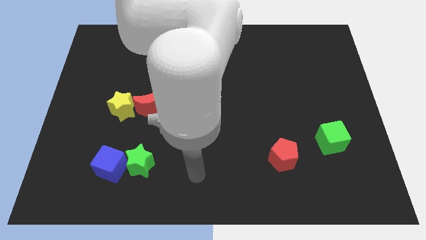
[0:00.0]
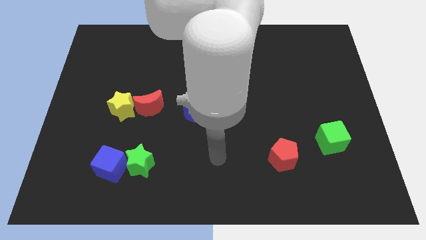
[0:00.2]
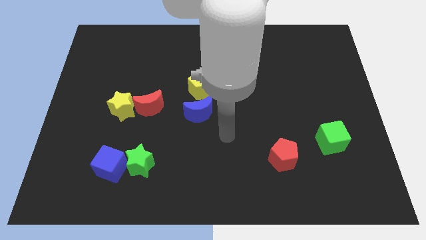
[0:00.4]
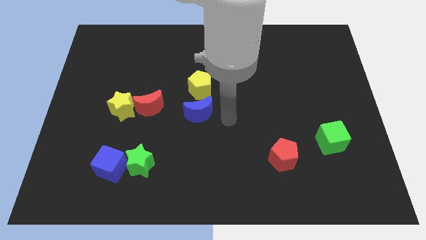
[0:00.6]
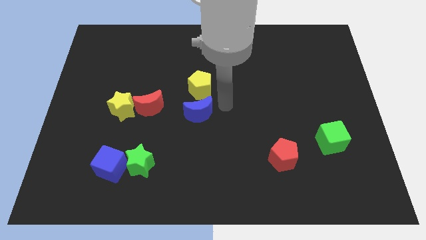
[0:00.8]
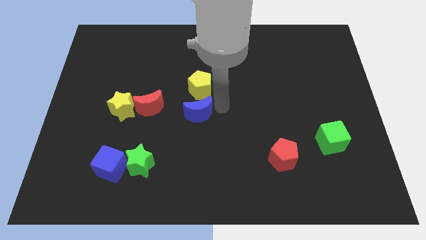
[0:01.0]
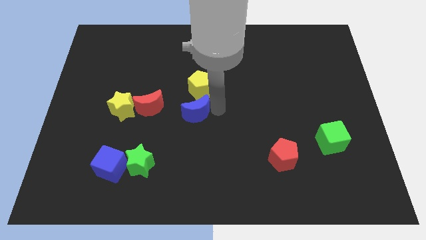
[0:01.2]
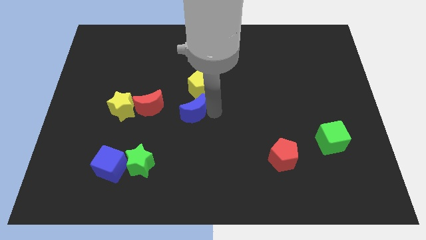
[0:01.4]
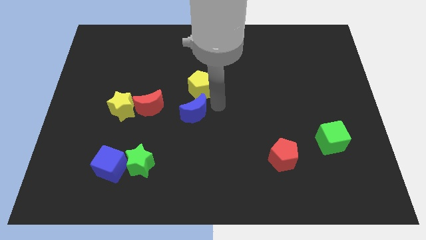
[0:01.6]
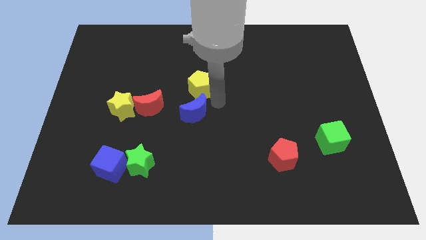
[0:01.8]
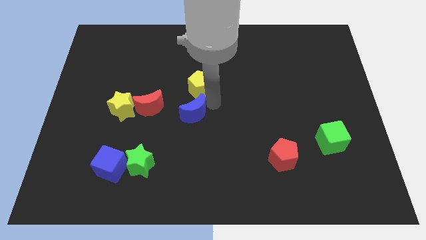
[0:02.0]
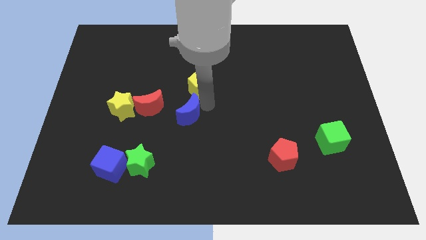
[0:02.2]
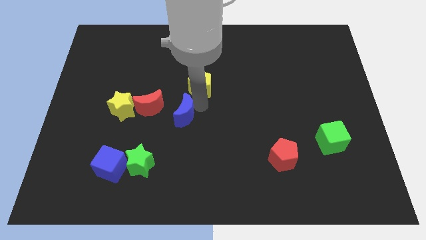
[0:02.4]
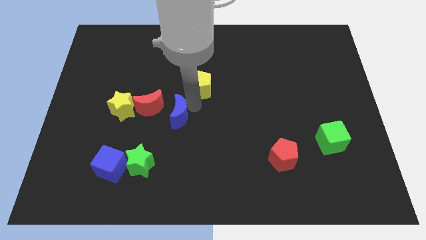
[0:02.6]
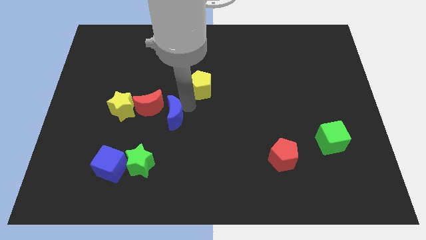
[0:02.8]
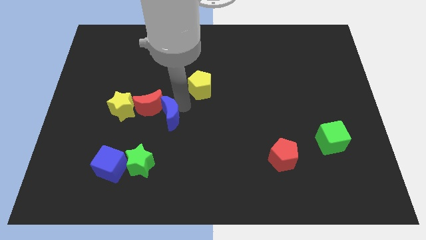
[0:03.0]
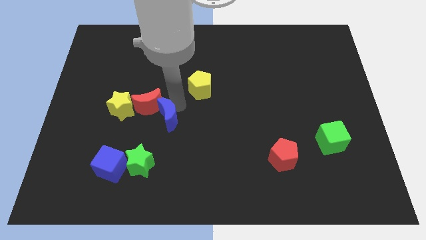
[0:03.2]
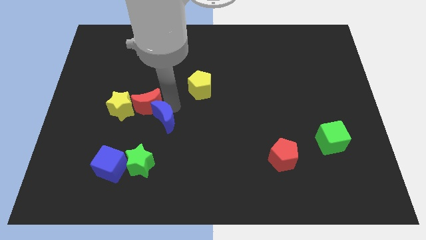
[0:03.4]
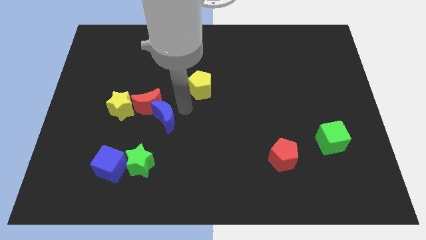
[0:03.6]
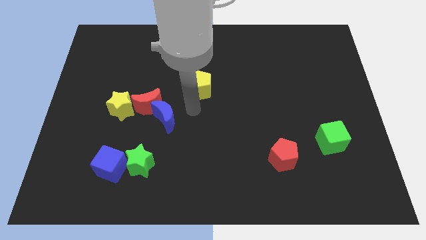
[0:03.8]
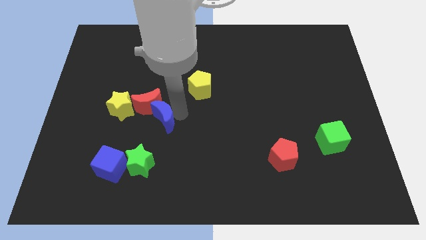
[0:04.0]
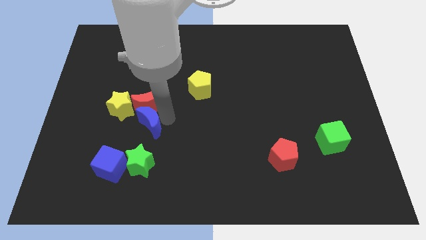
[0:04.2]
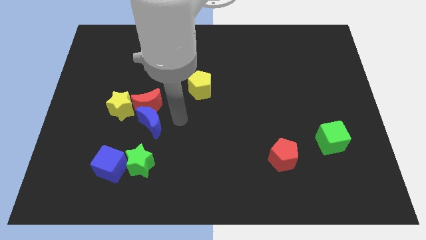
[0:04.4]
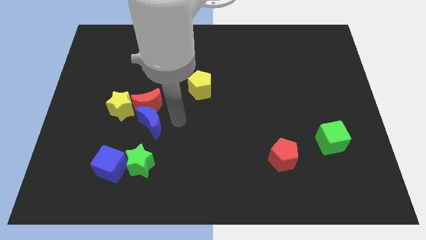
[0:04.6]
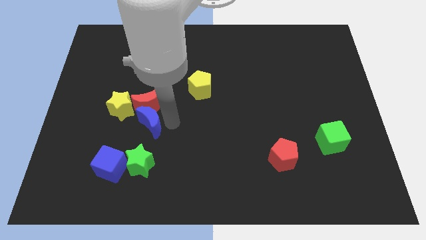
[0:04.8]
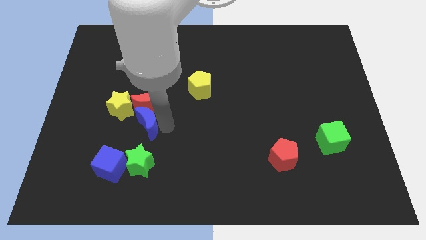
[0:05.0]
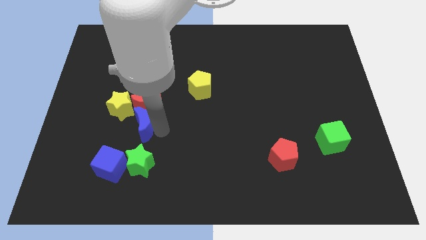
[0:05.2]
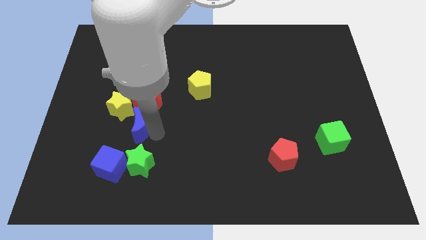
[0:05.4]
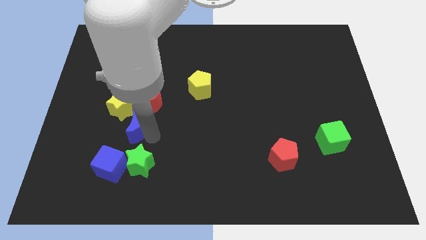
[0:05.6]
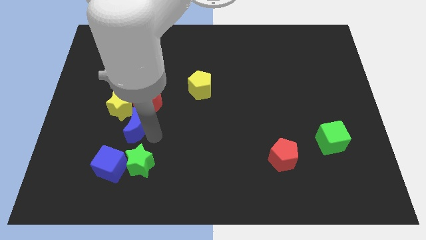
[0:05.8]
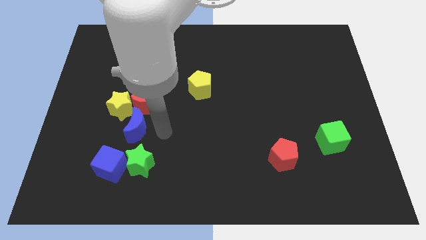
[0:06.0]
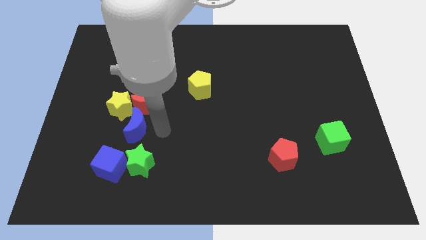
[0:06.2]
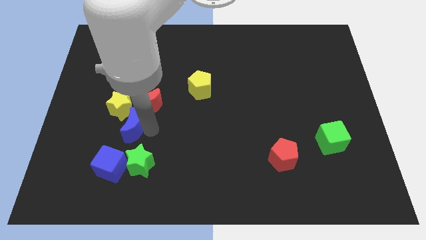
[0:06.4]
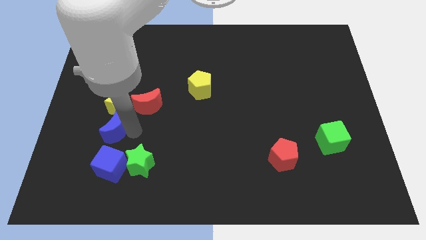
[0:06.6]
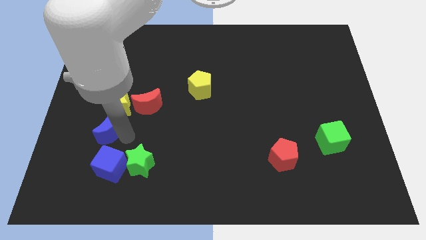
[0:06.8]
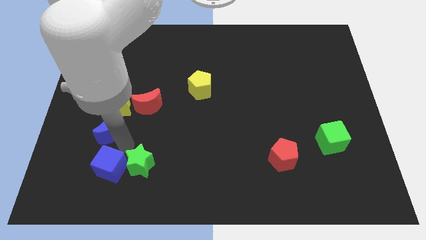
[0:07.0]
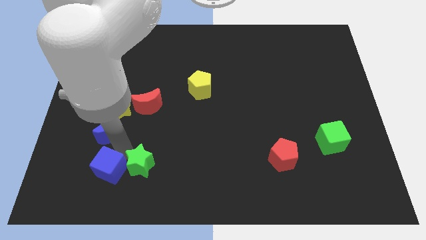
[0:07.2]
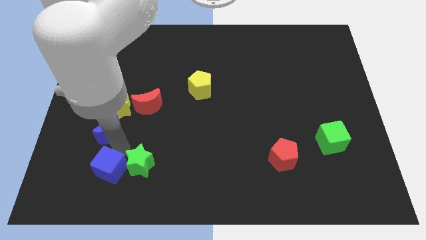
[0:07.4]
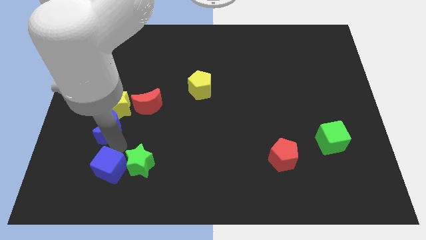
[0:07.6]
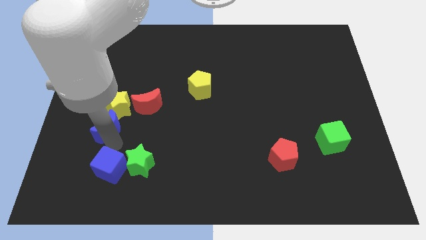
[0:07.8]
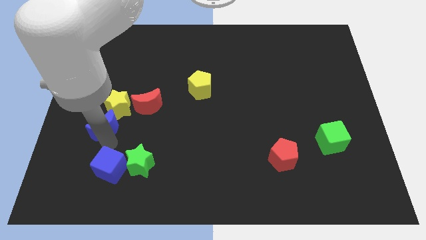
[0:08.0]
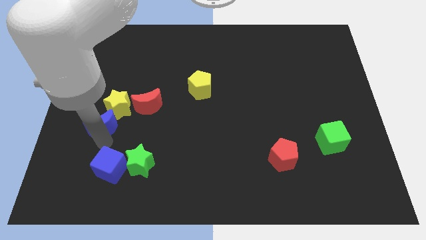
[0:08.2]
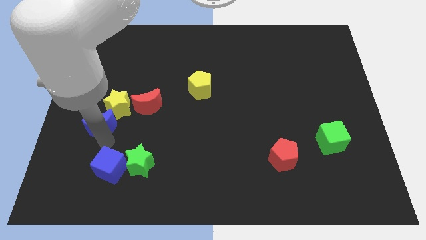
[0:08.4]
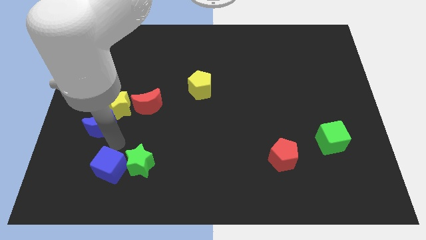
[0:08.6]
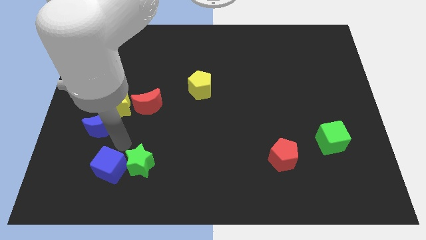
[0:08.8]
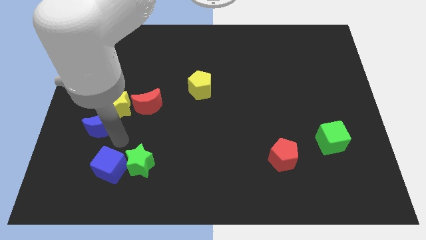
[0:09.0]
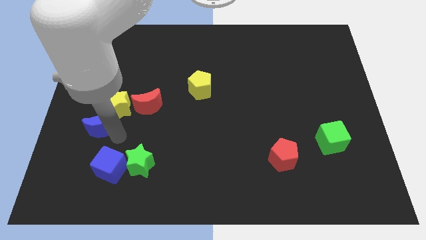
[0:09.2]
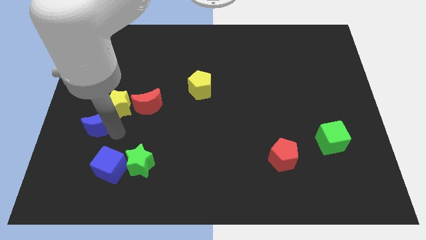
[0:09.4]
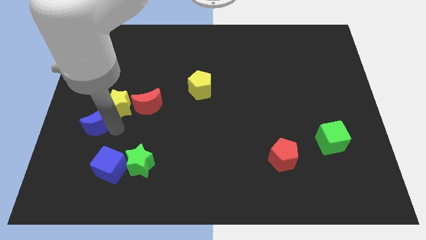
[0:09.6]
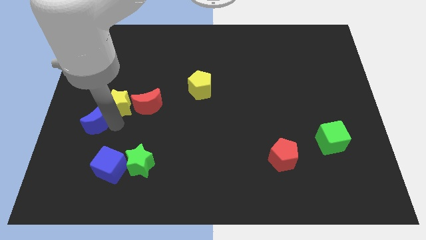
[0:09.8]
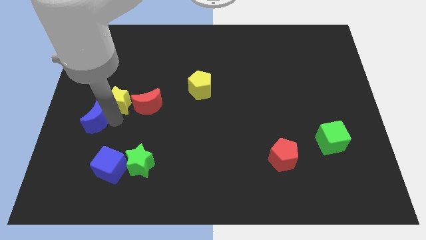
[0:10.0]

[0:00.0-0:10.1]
put the blue moon to the left side

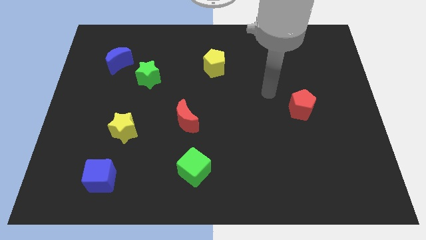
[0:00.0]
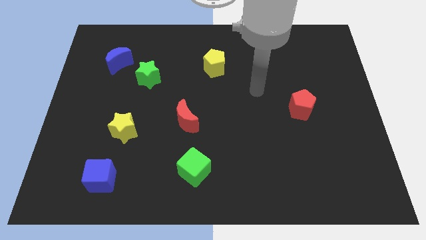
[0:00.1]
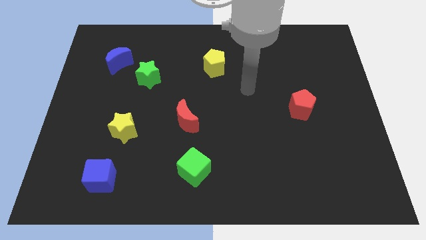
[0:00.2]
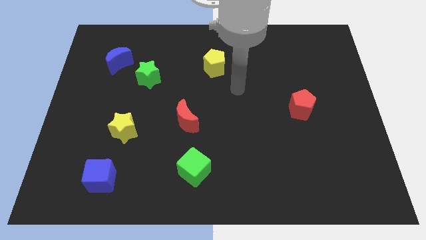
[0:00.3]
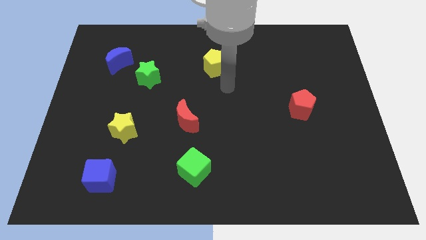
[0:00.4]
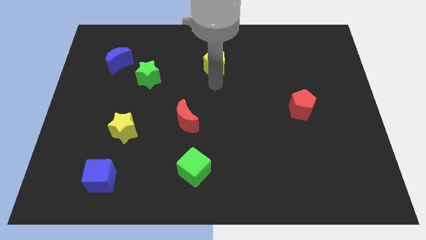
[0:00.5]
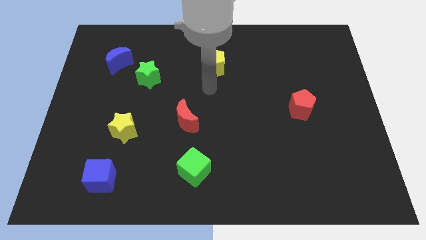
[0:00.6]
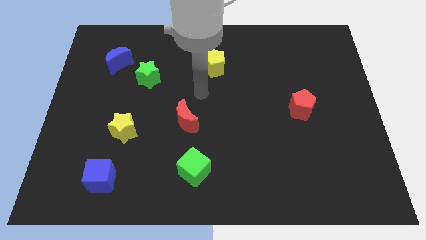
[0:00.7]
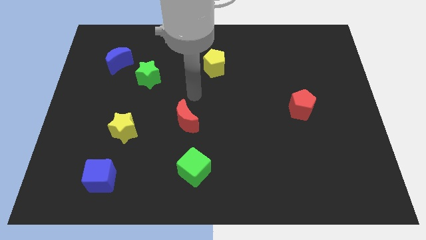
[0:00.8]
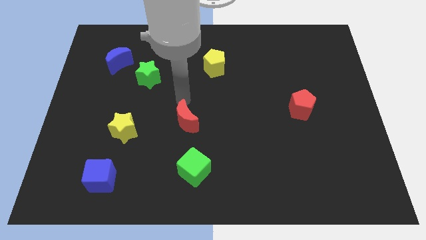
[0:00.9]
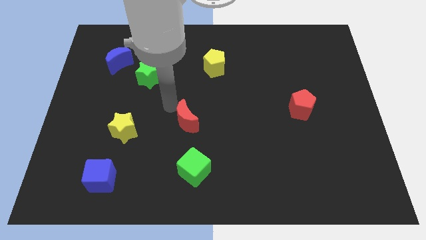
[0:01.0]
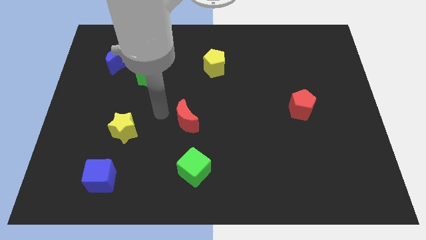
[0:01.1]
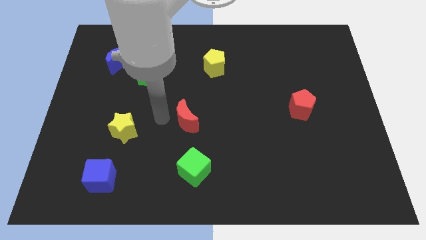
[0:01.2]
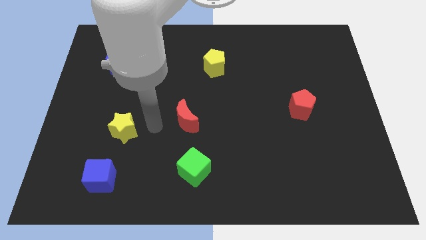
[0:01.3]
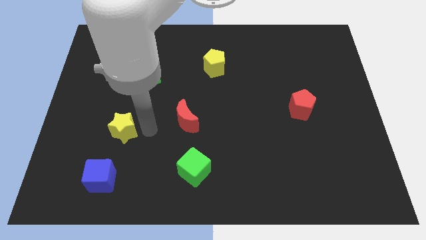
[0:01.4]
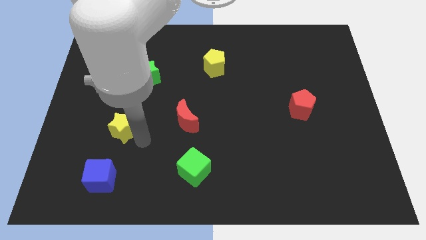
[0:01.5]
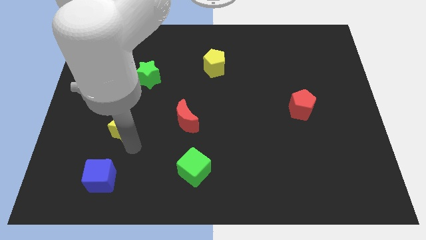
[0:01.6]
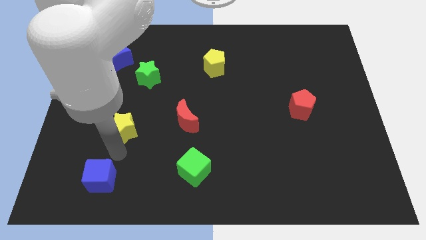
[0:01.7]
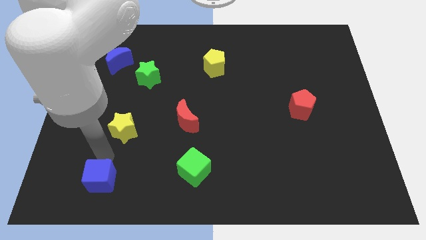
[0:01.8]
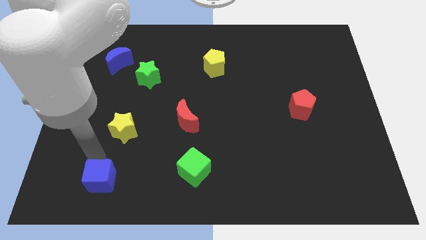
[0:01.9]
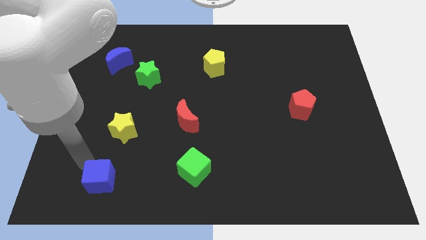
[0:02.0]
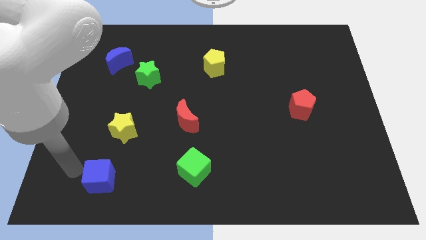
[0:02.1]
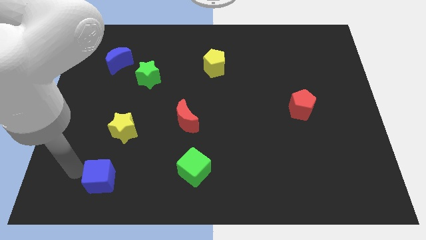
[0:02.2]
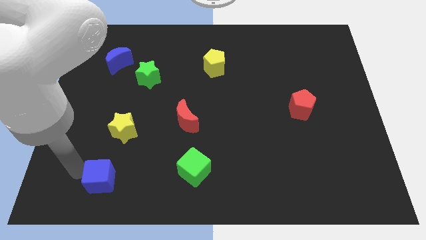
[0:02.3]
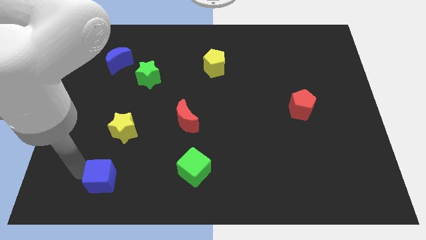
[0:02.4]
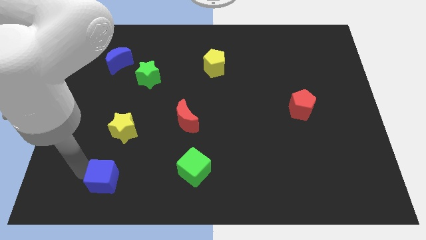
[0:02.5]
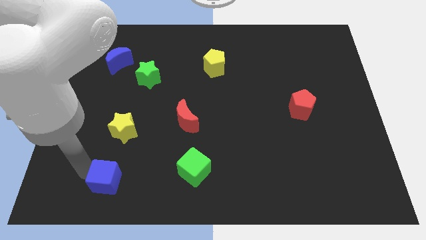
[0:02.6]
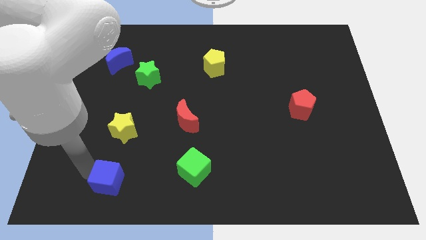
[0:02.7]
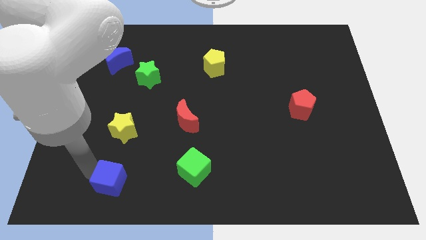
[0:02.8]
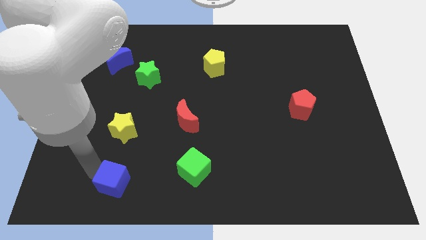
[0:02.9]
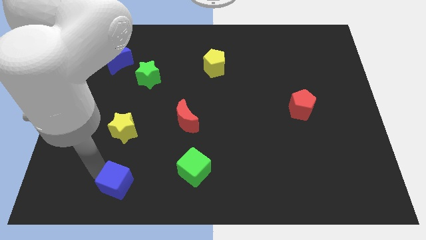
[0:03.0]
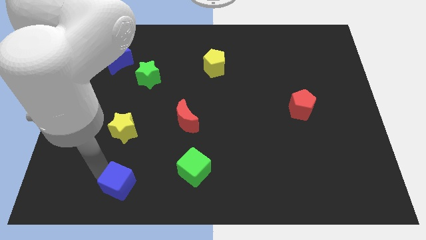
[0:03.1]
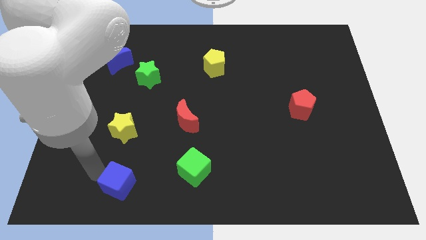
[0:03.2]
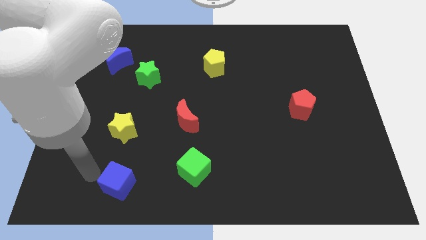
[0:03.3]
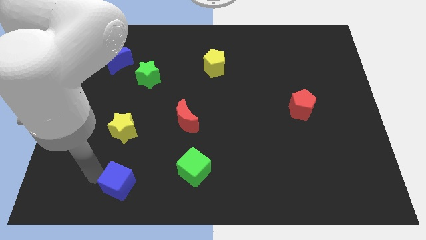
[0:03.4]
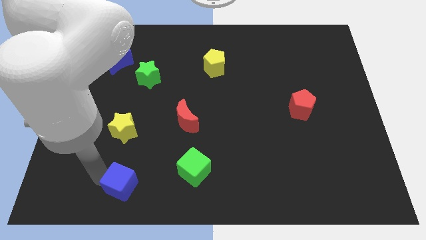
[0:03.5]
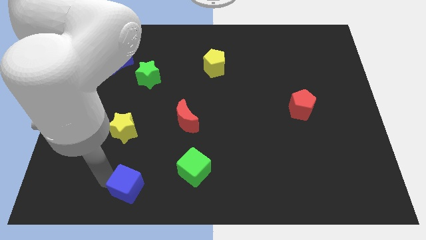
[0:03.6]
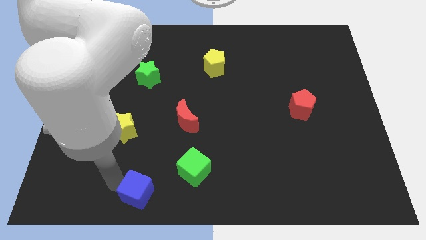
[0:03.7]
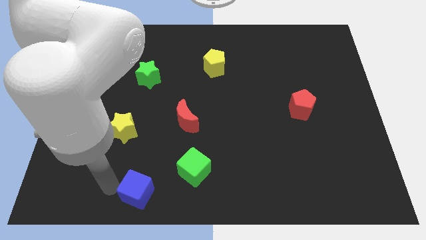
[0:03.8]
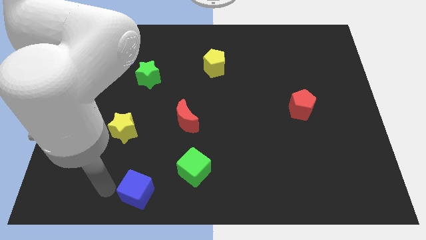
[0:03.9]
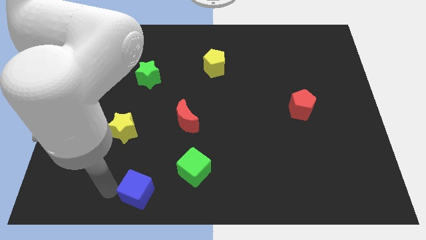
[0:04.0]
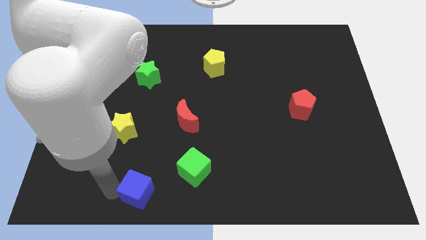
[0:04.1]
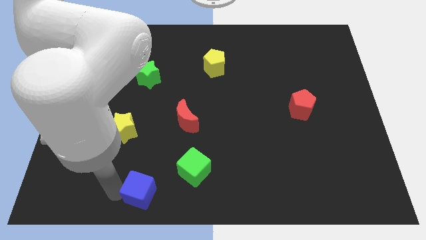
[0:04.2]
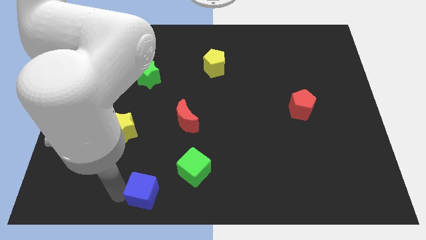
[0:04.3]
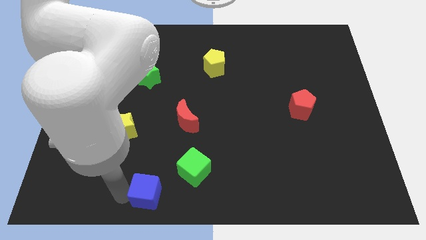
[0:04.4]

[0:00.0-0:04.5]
push the blue cube to the bottom side
